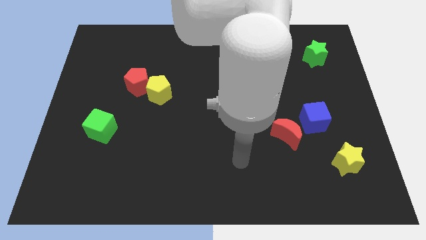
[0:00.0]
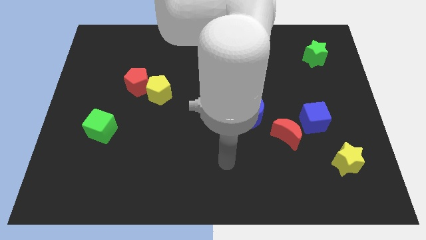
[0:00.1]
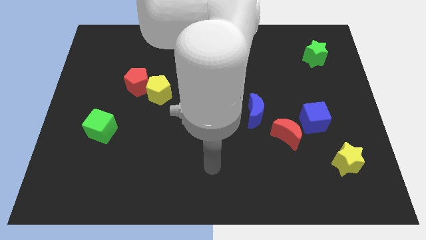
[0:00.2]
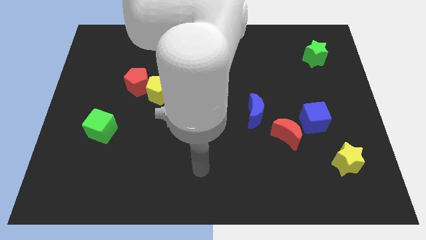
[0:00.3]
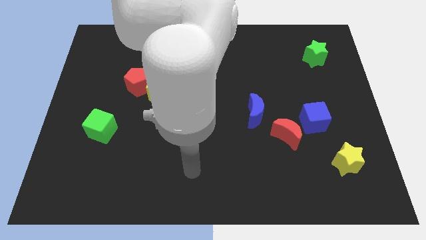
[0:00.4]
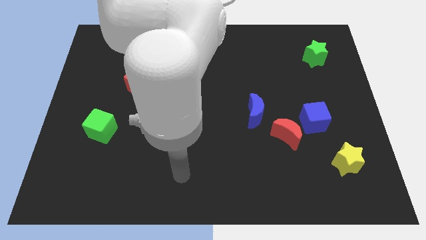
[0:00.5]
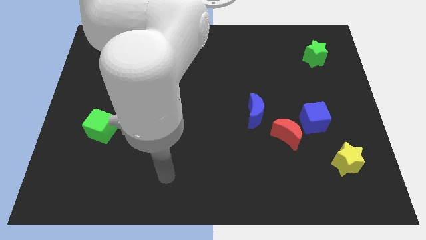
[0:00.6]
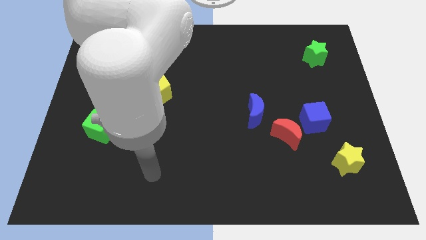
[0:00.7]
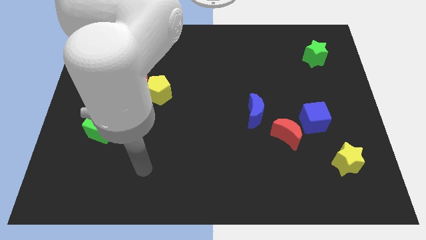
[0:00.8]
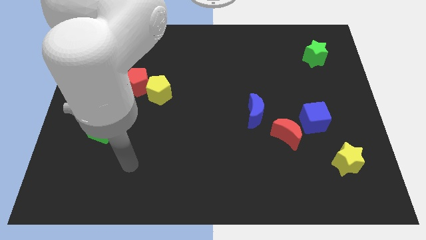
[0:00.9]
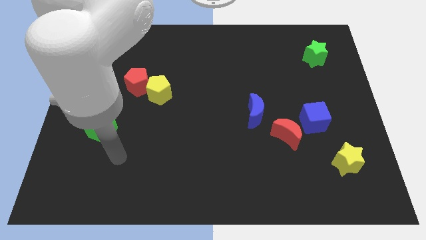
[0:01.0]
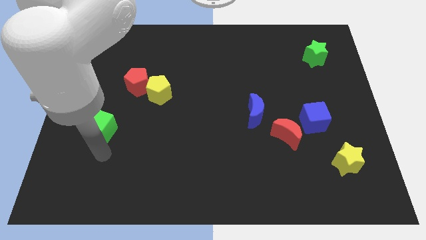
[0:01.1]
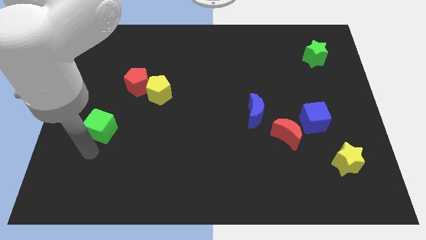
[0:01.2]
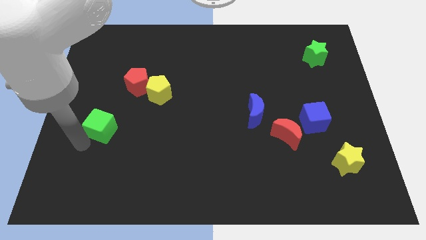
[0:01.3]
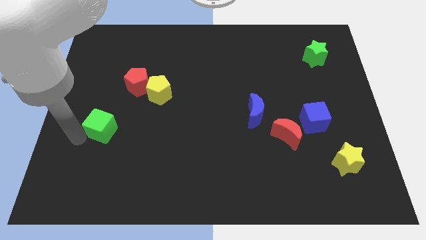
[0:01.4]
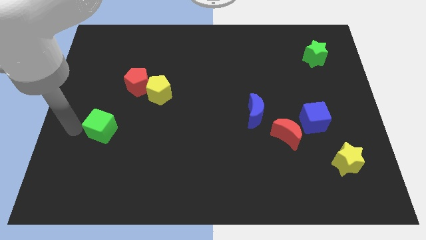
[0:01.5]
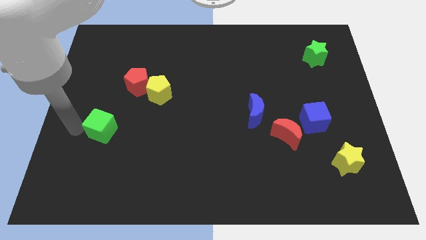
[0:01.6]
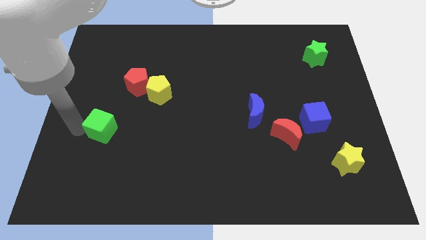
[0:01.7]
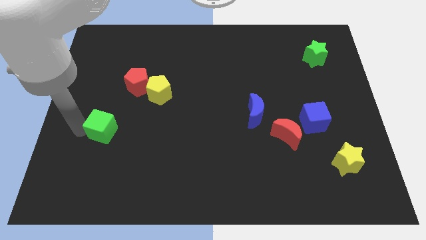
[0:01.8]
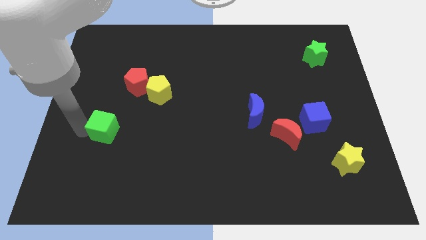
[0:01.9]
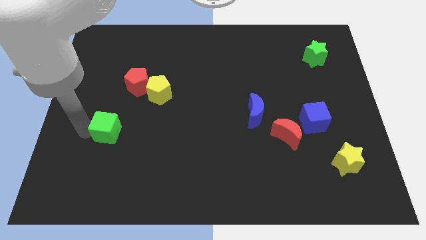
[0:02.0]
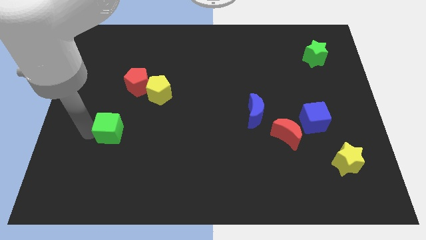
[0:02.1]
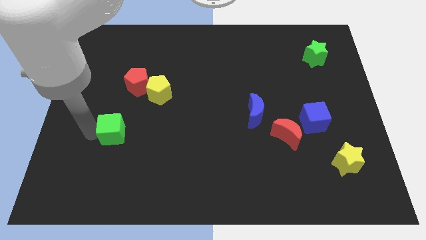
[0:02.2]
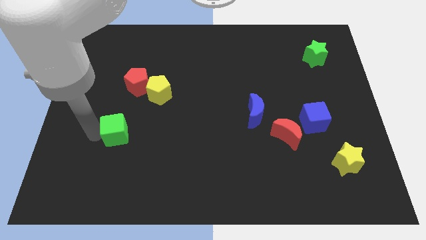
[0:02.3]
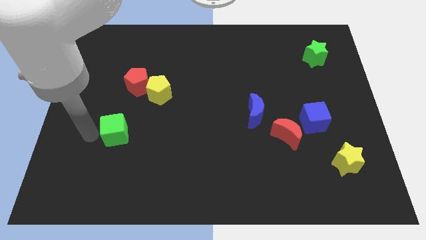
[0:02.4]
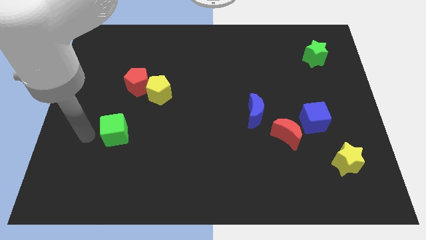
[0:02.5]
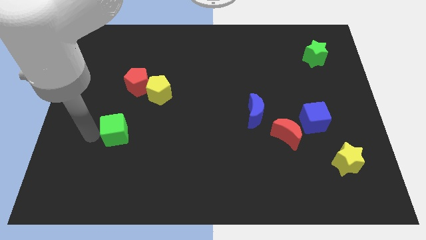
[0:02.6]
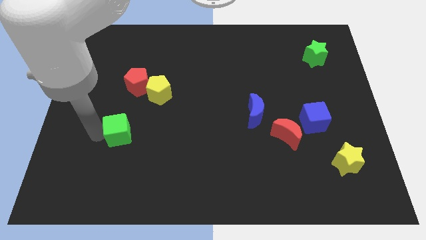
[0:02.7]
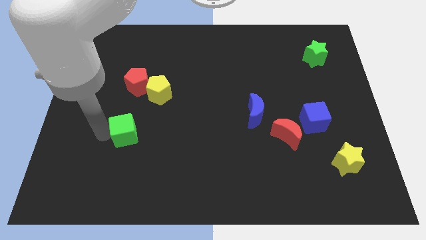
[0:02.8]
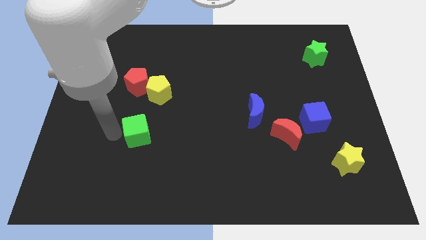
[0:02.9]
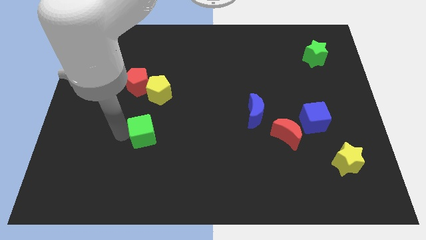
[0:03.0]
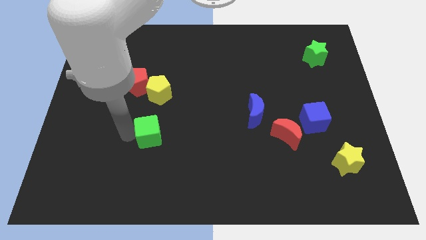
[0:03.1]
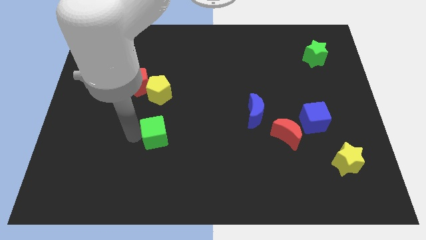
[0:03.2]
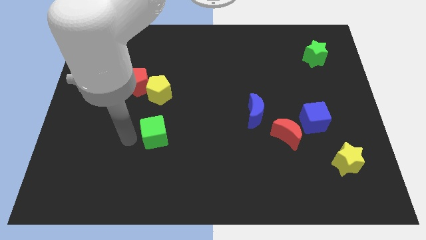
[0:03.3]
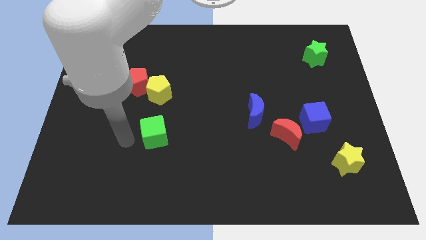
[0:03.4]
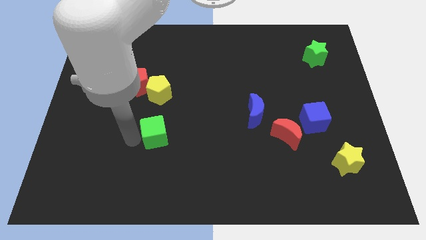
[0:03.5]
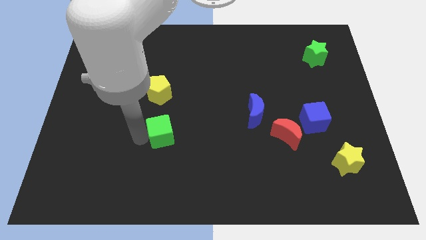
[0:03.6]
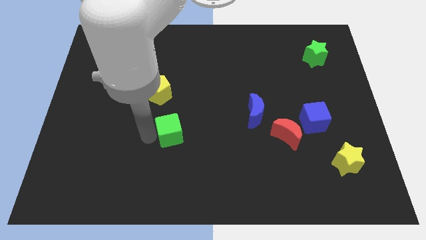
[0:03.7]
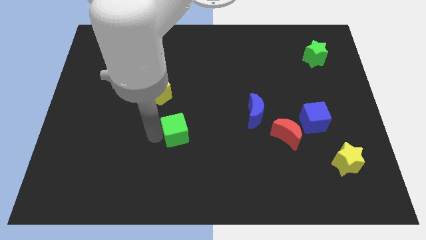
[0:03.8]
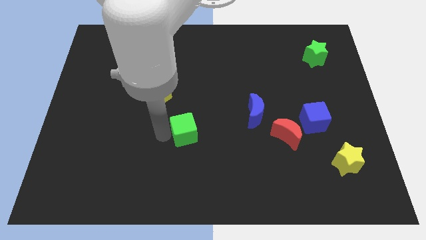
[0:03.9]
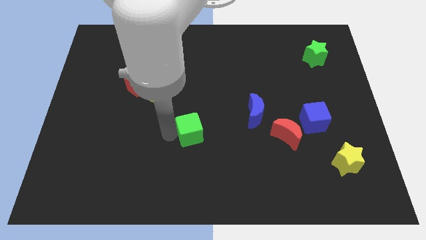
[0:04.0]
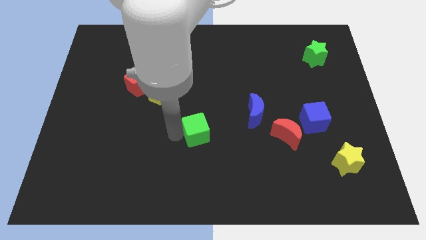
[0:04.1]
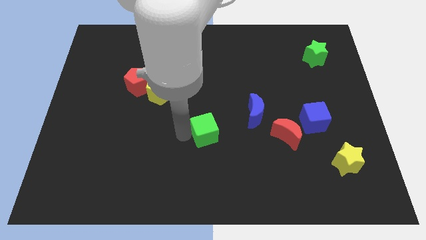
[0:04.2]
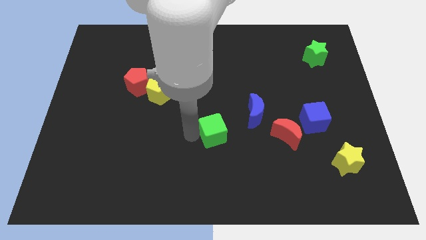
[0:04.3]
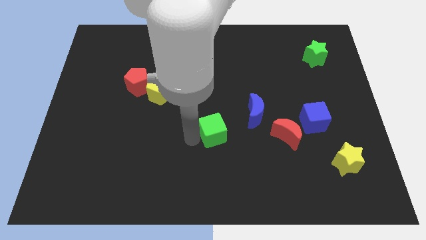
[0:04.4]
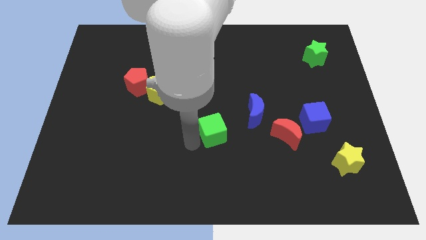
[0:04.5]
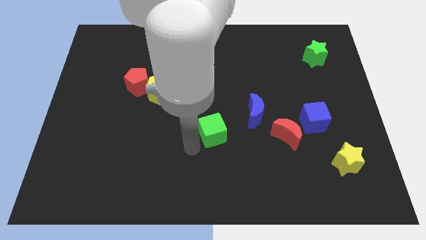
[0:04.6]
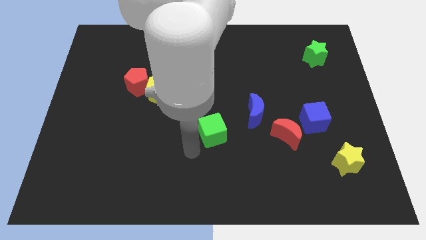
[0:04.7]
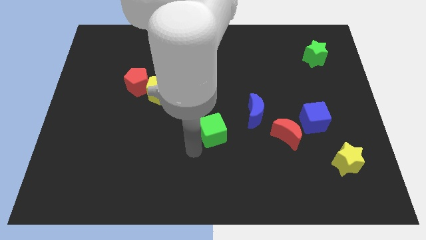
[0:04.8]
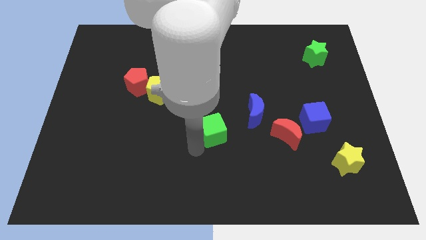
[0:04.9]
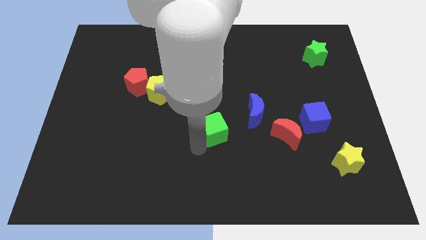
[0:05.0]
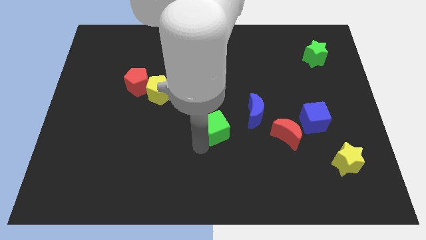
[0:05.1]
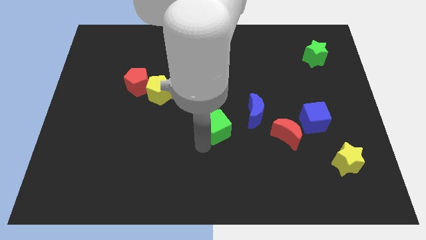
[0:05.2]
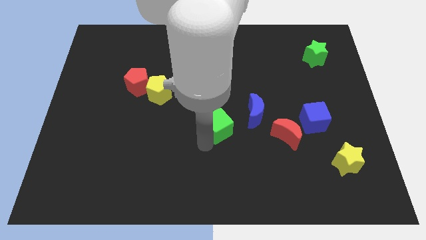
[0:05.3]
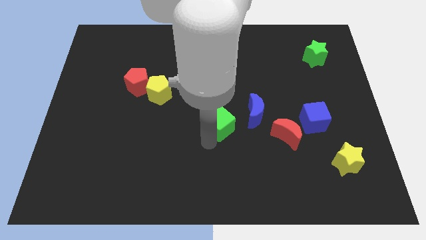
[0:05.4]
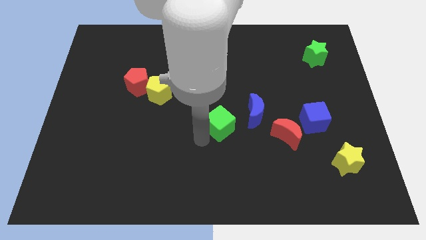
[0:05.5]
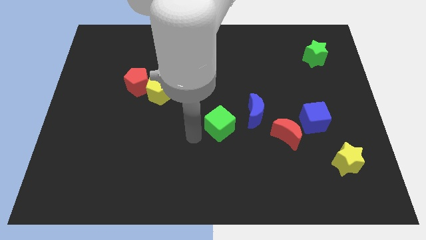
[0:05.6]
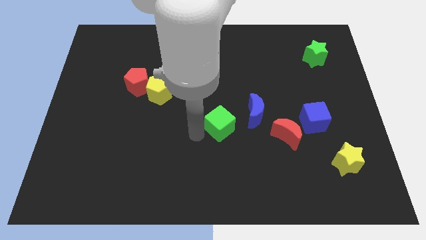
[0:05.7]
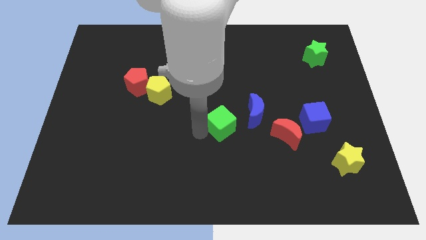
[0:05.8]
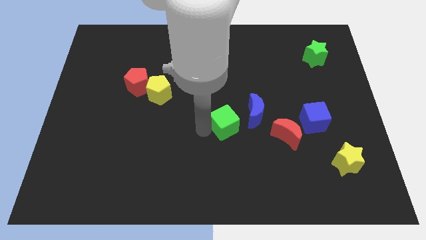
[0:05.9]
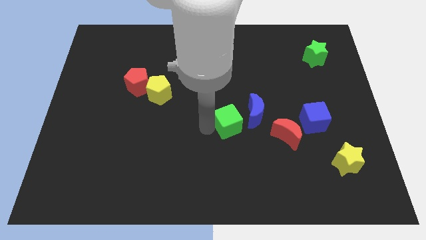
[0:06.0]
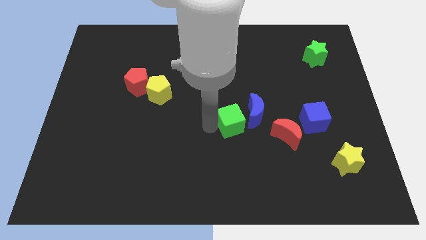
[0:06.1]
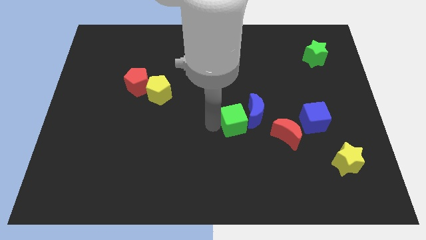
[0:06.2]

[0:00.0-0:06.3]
slide the green cube to the blue moon

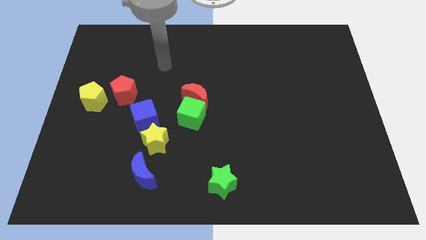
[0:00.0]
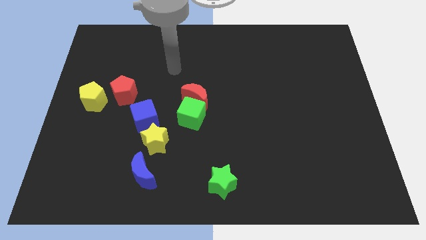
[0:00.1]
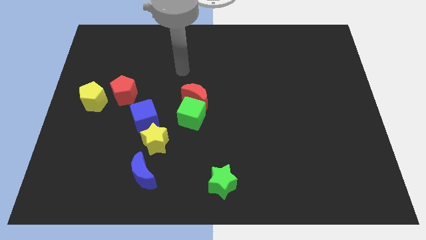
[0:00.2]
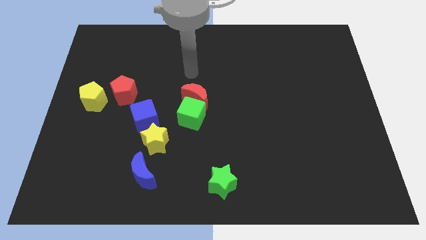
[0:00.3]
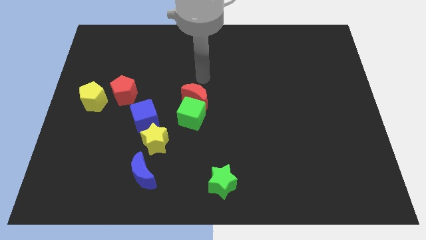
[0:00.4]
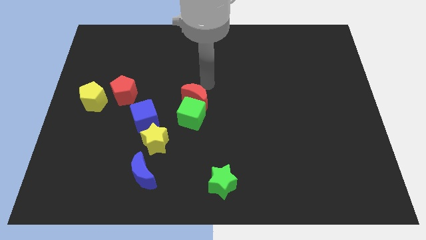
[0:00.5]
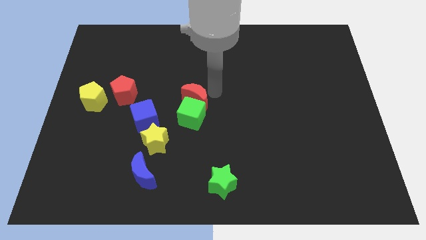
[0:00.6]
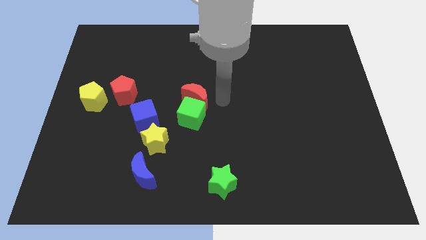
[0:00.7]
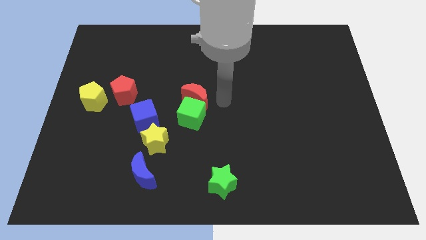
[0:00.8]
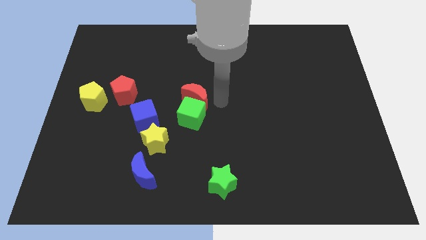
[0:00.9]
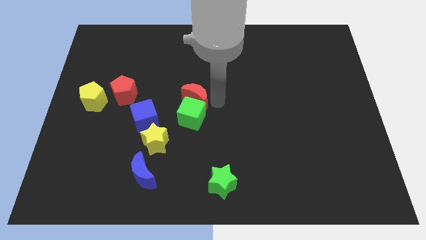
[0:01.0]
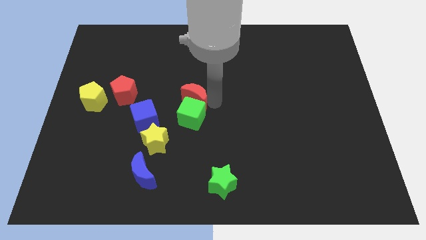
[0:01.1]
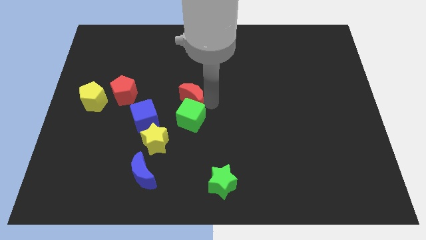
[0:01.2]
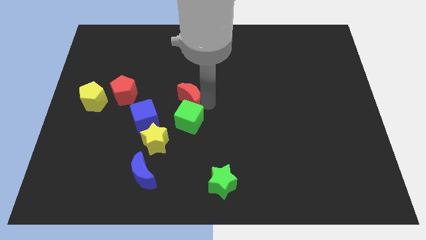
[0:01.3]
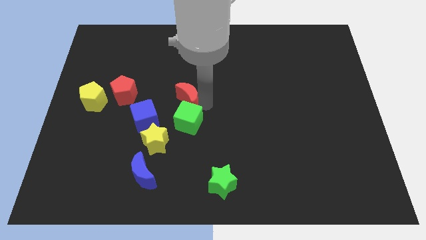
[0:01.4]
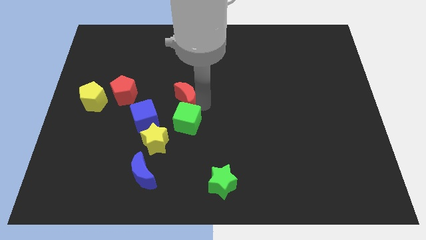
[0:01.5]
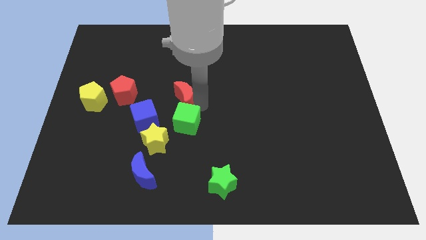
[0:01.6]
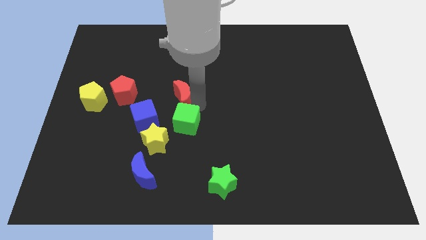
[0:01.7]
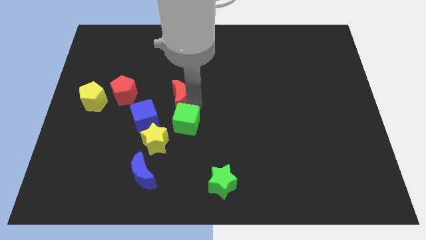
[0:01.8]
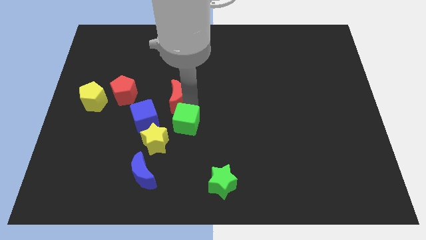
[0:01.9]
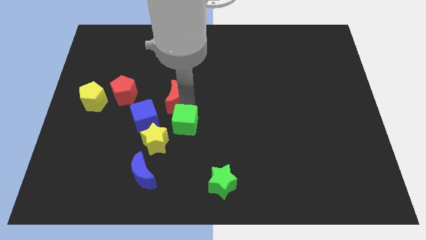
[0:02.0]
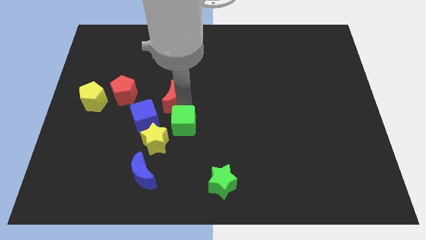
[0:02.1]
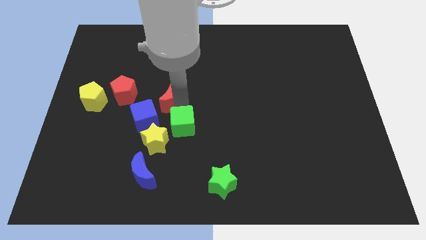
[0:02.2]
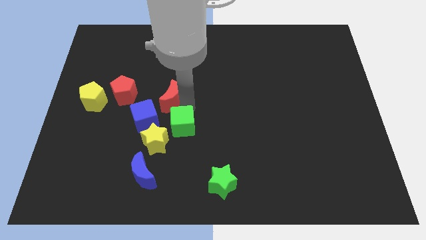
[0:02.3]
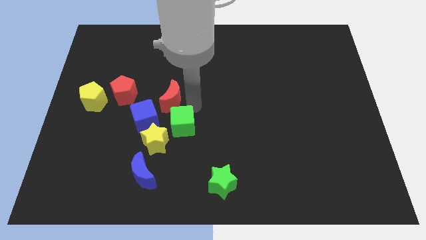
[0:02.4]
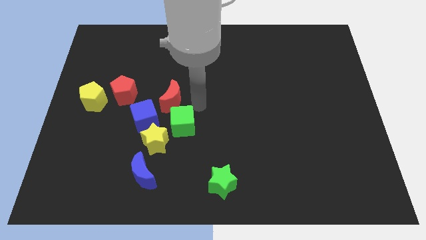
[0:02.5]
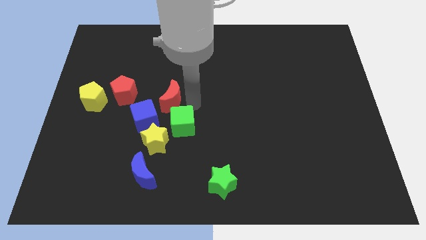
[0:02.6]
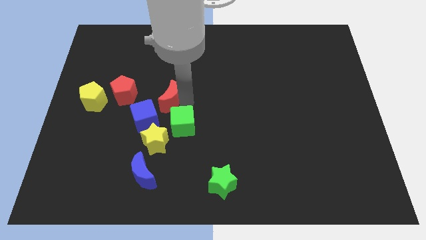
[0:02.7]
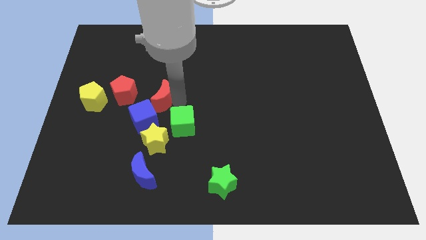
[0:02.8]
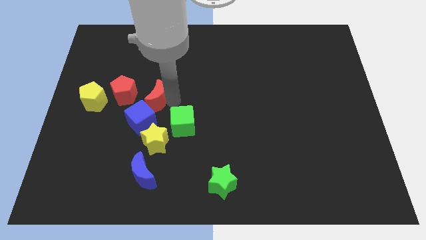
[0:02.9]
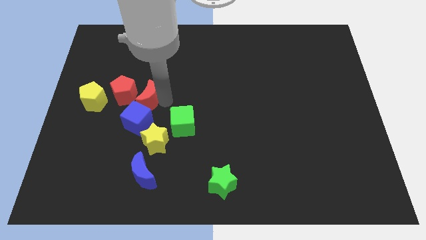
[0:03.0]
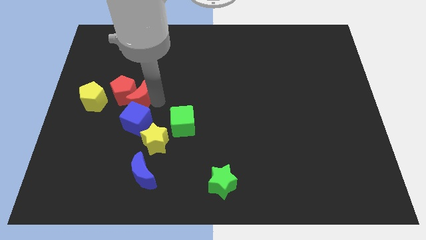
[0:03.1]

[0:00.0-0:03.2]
put the red moon to the red pentagon
